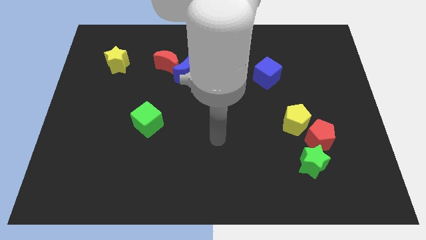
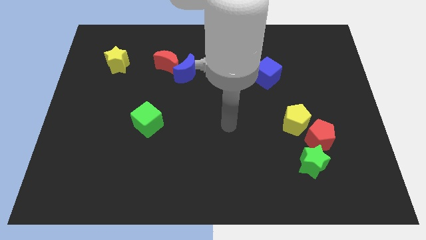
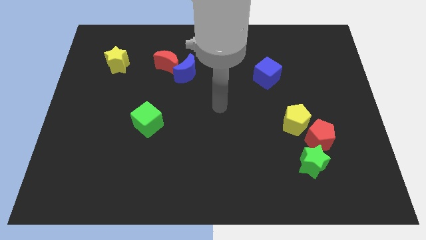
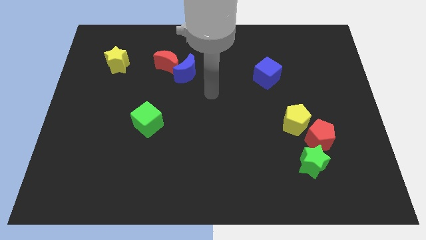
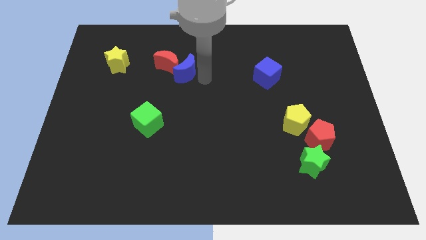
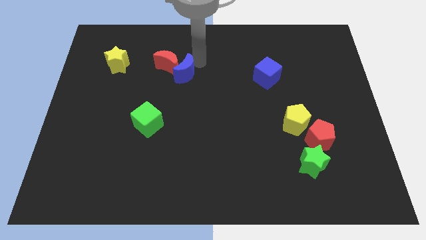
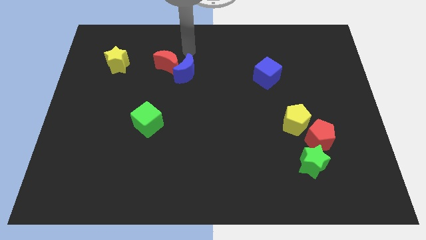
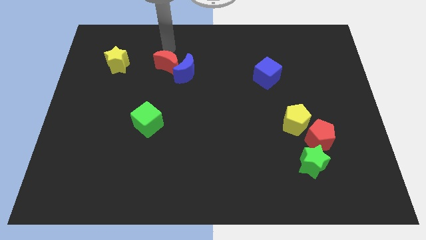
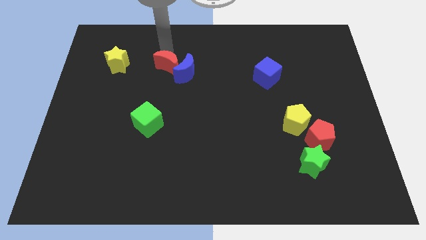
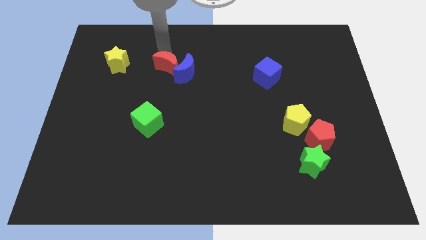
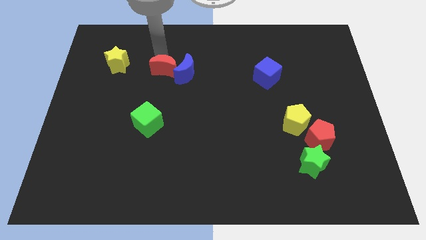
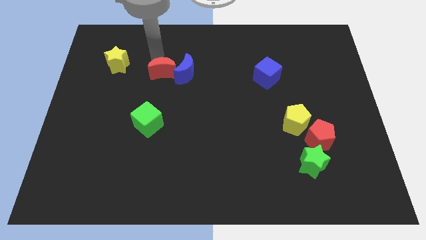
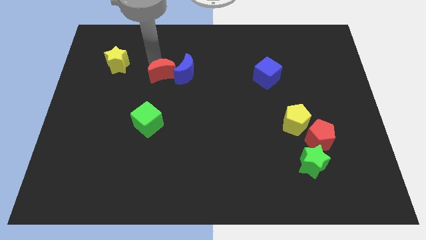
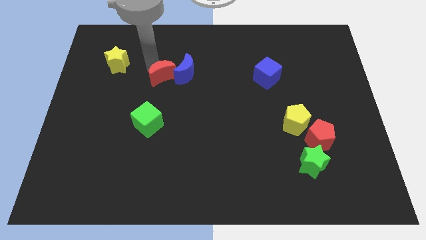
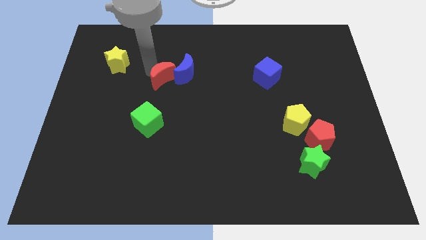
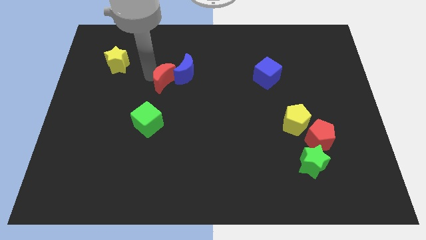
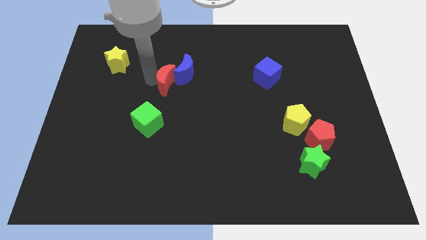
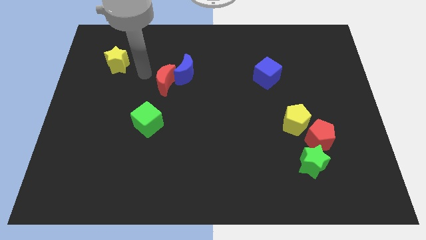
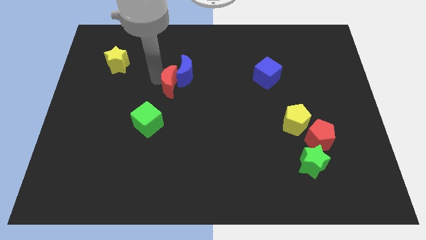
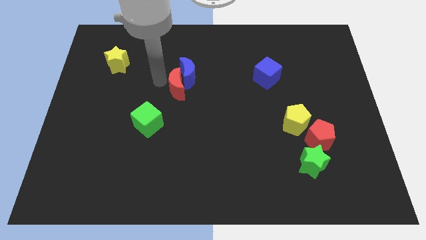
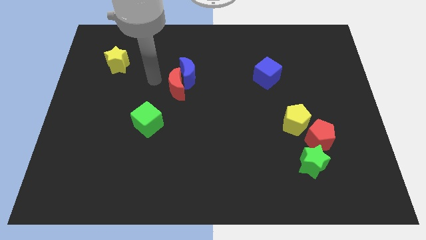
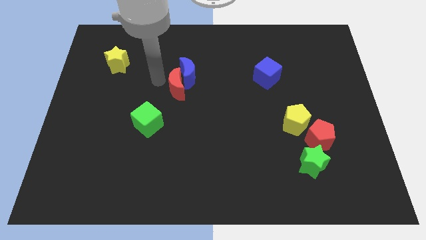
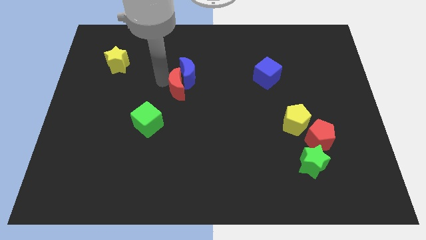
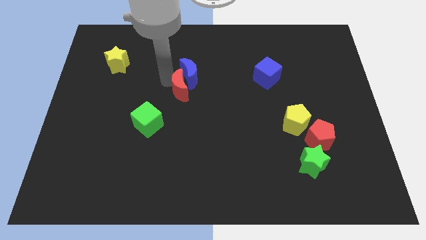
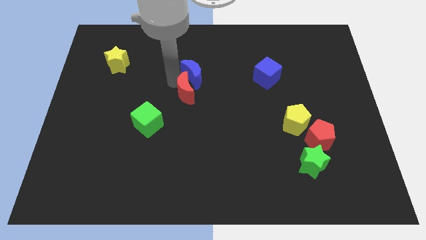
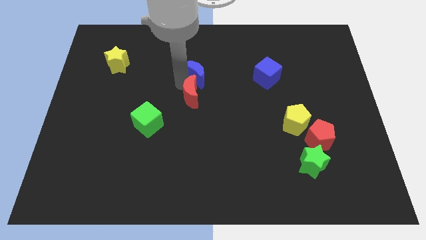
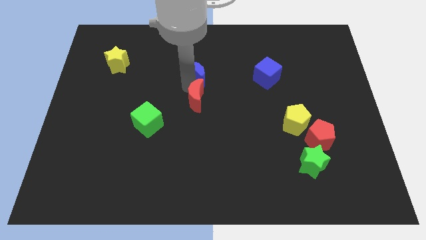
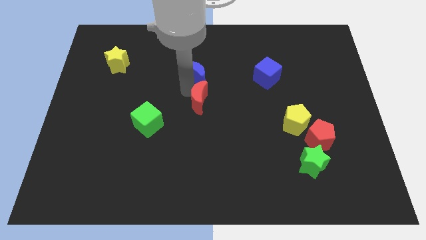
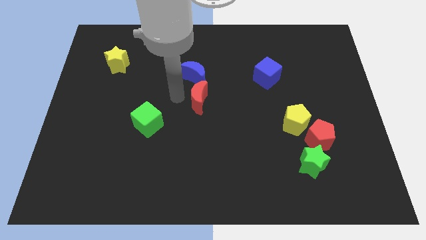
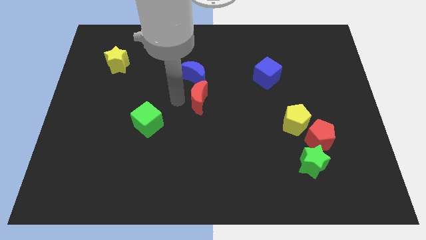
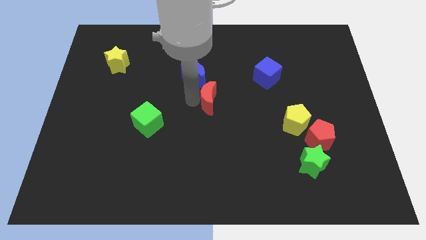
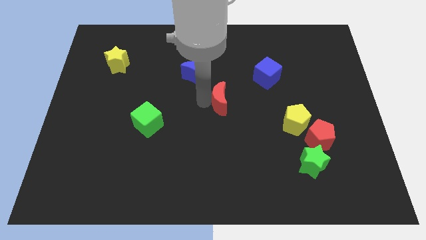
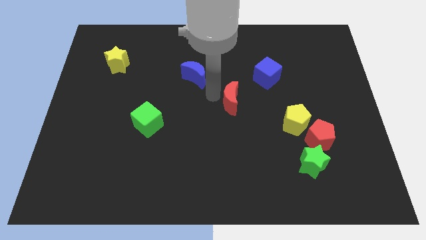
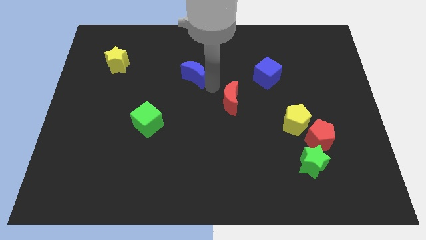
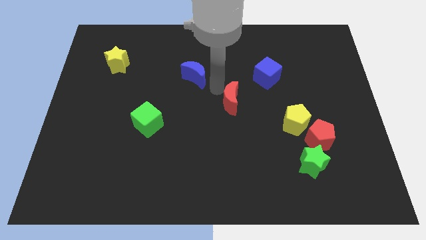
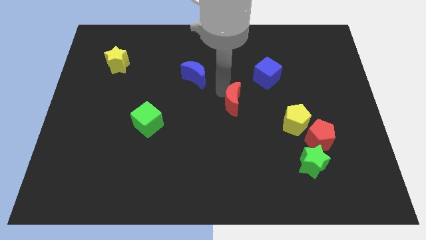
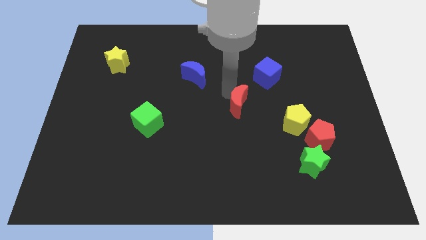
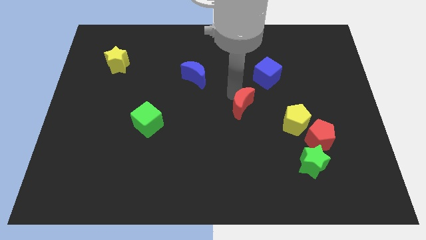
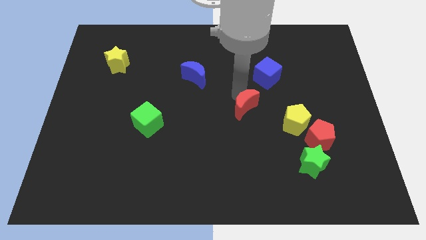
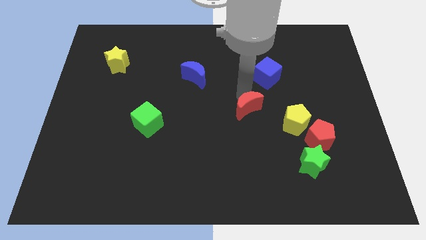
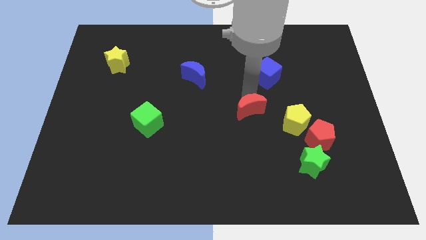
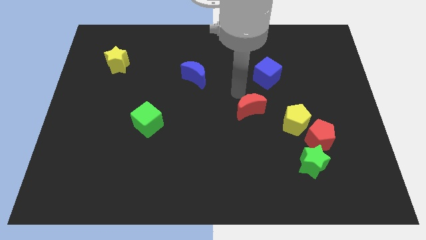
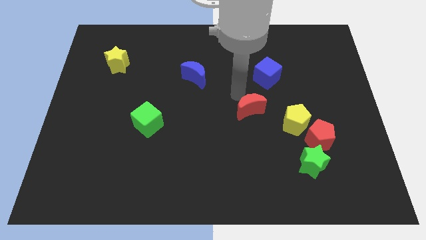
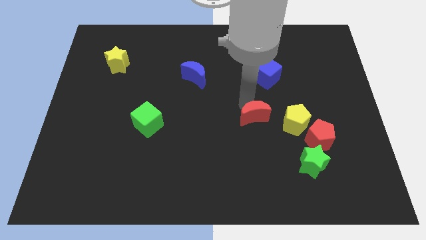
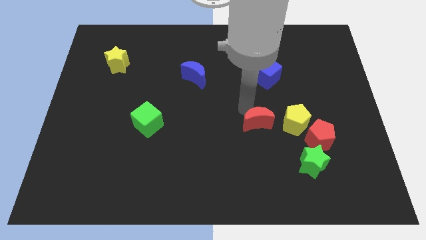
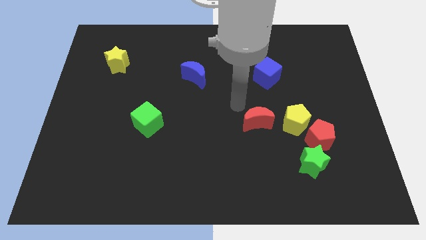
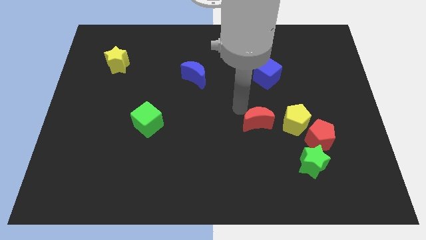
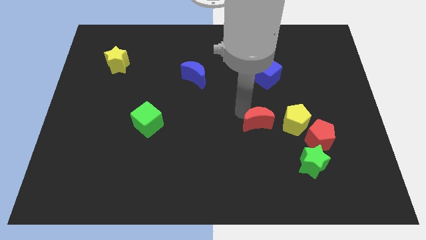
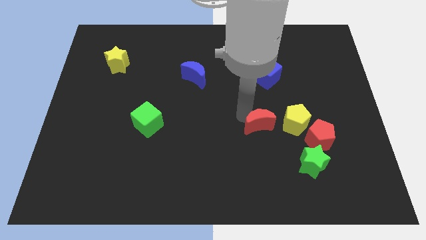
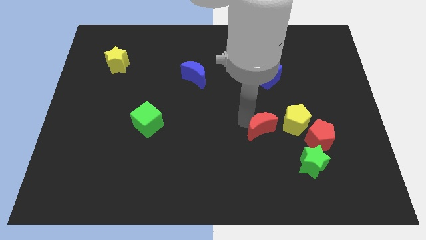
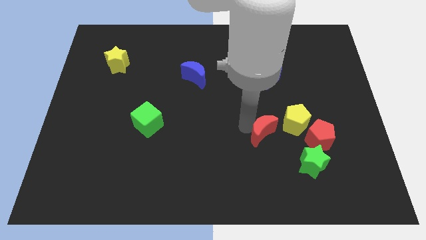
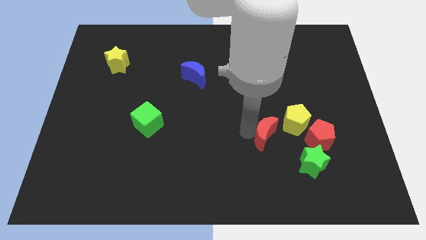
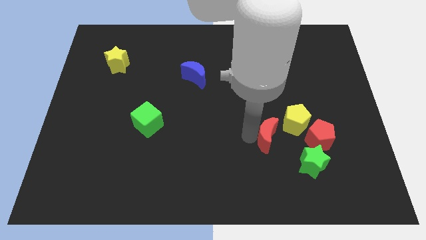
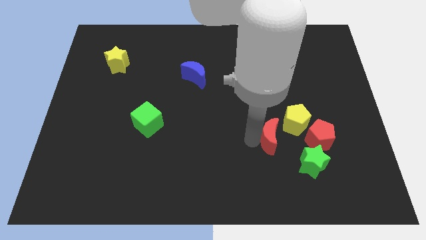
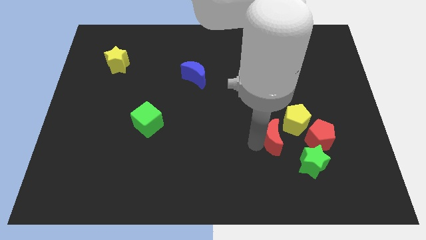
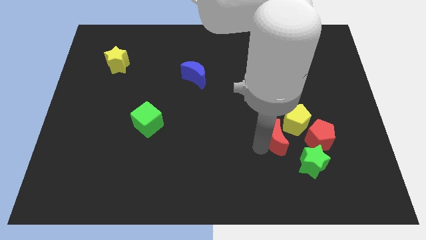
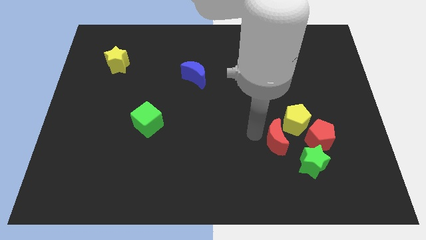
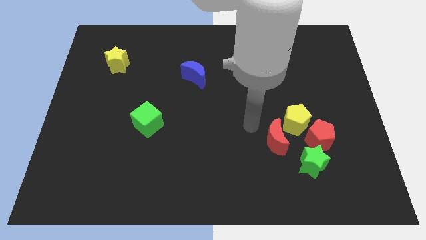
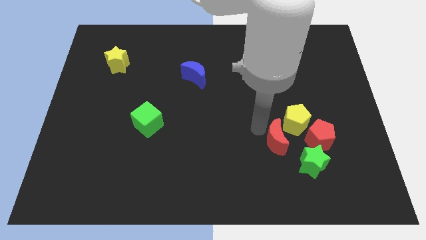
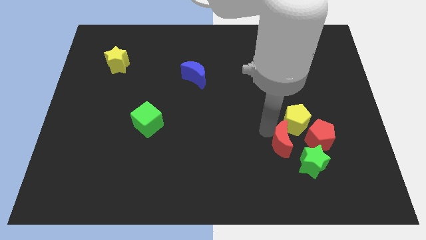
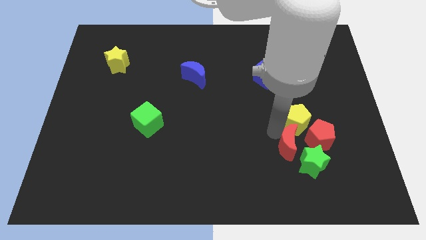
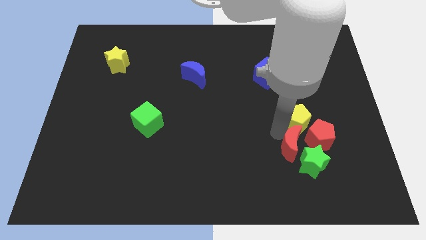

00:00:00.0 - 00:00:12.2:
put the red moon to the green star

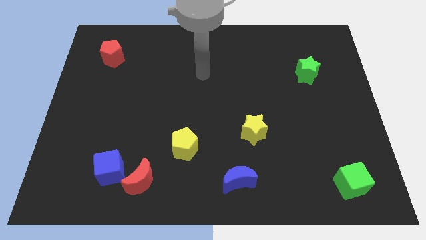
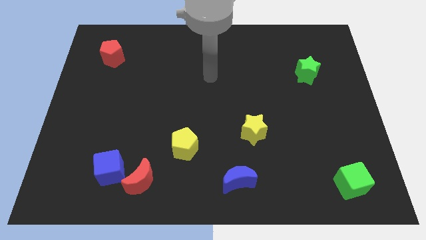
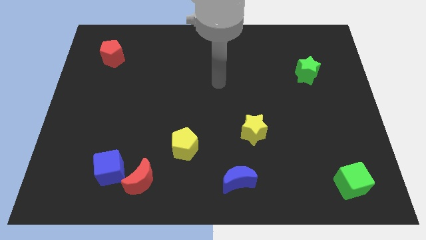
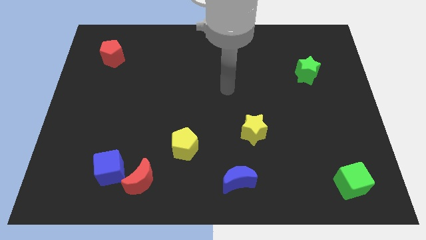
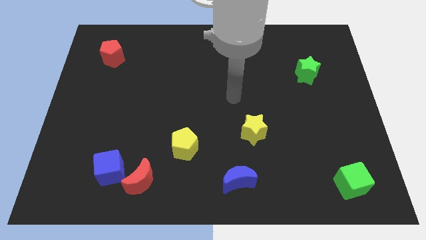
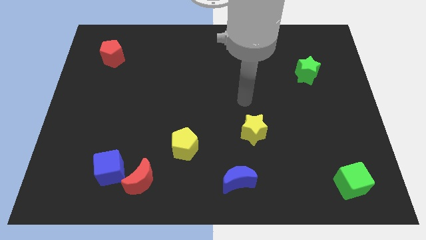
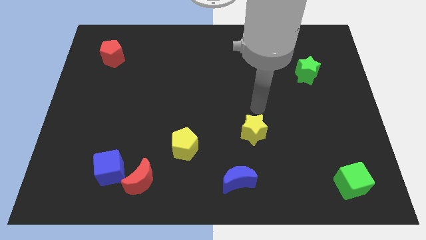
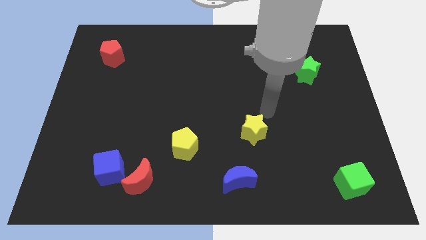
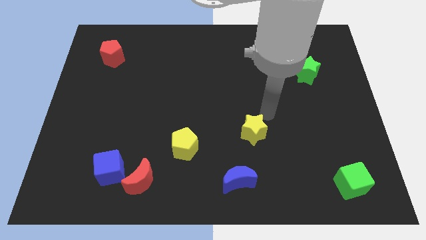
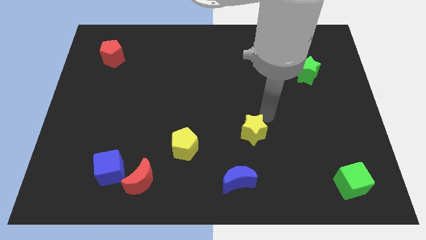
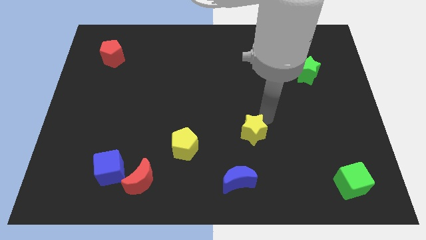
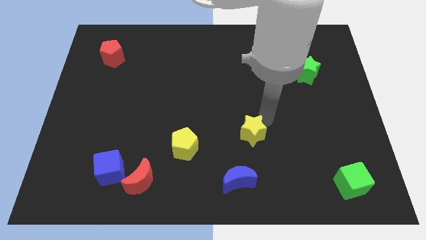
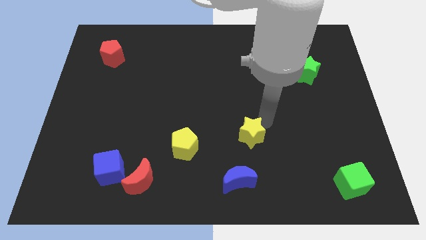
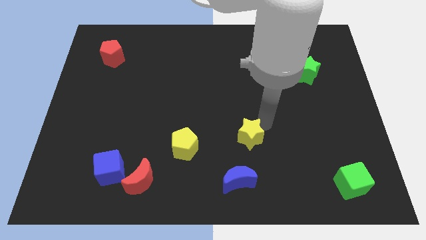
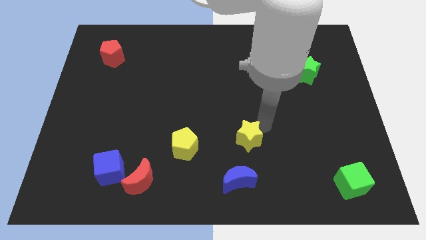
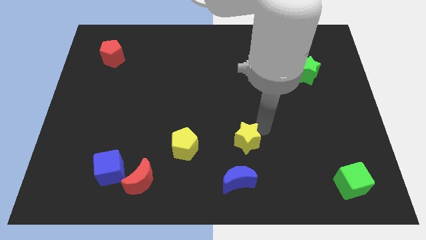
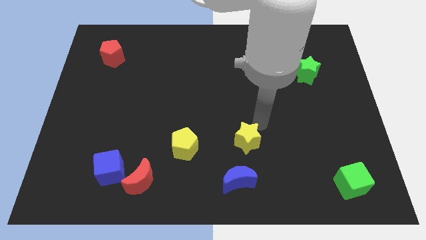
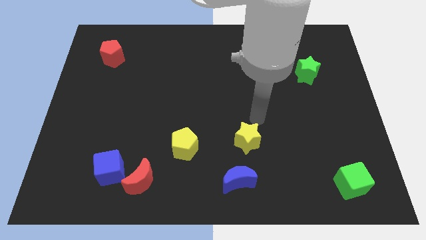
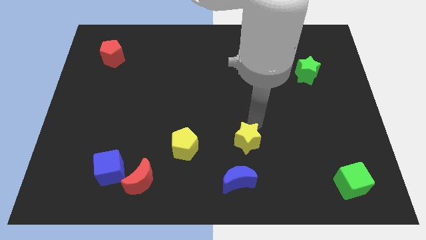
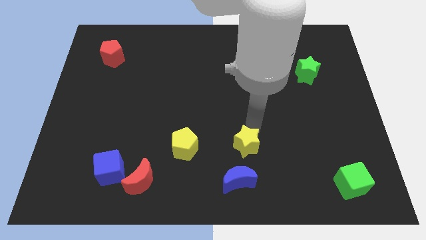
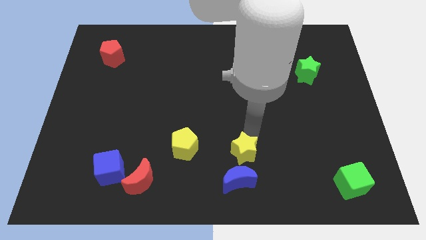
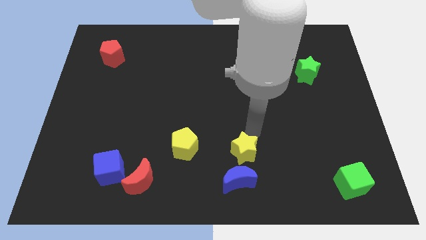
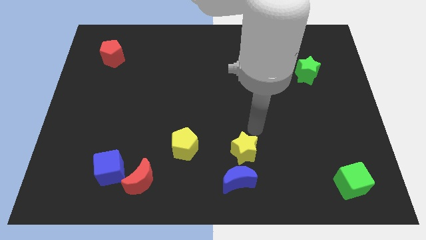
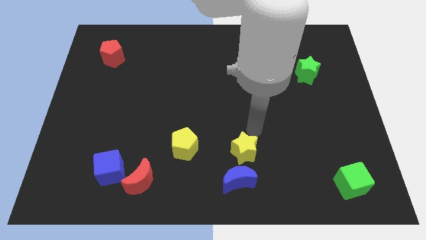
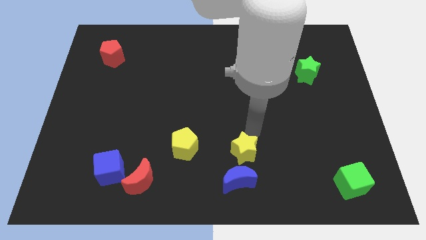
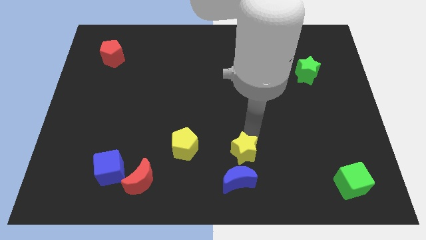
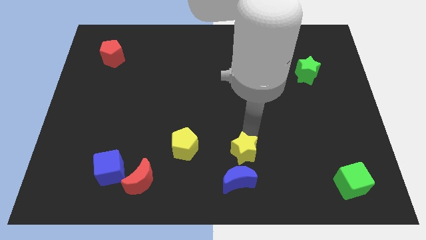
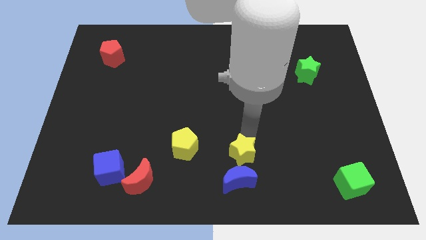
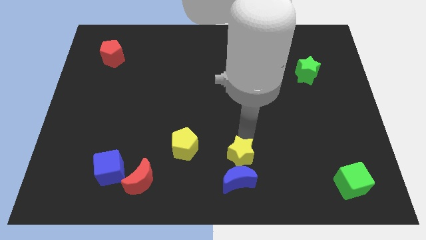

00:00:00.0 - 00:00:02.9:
slide the yellow star towards the blue moon
